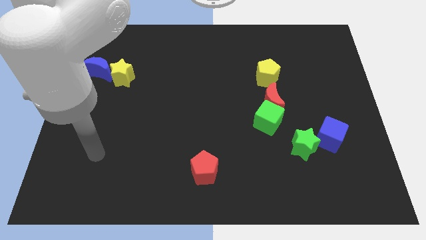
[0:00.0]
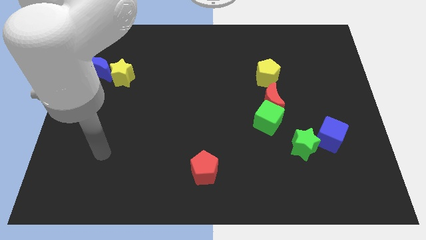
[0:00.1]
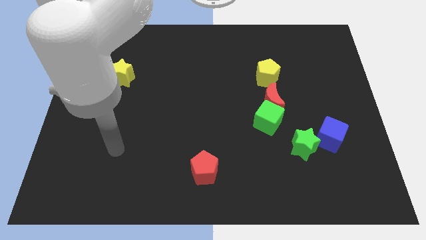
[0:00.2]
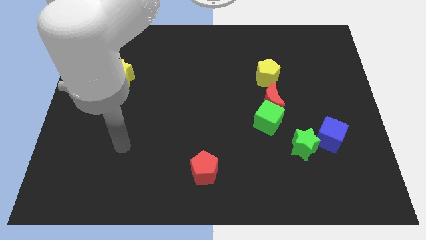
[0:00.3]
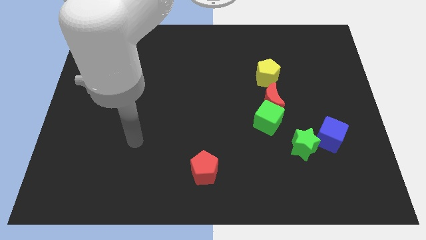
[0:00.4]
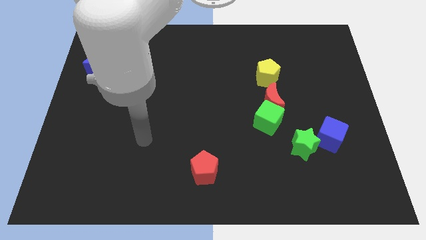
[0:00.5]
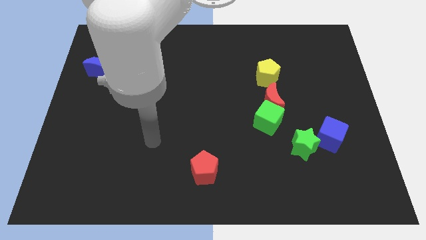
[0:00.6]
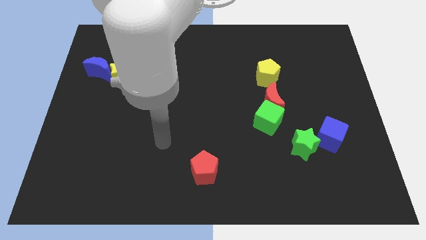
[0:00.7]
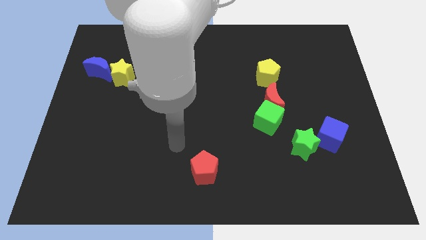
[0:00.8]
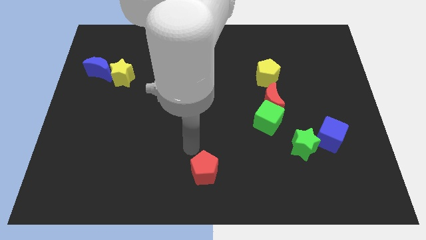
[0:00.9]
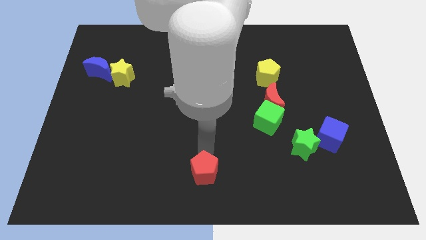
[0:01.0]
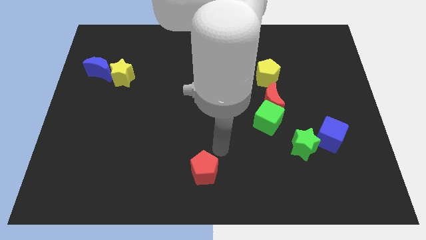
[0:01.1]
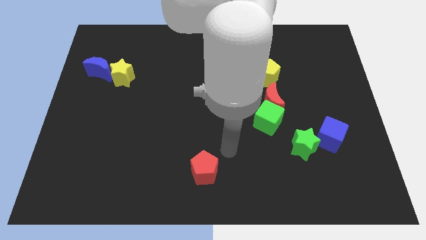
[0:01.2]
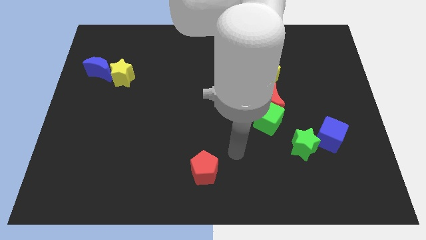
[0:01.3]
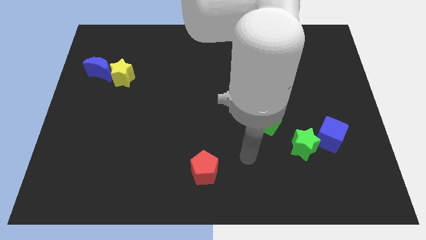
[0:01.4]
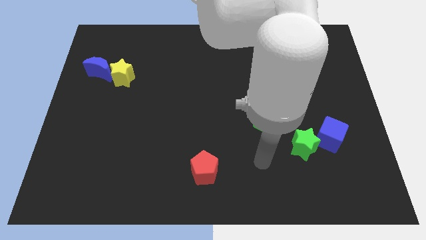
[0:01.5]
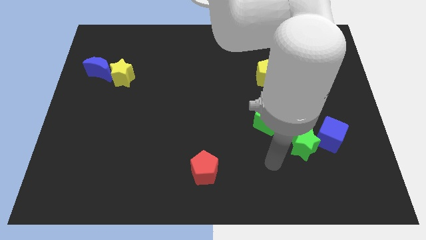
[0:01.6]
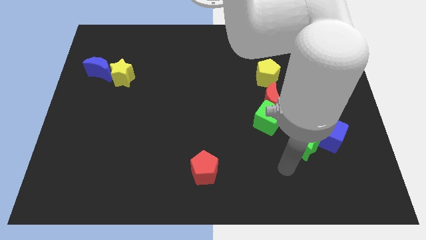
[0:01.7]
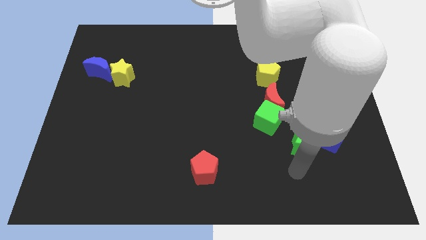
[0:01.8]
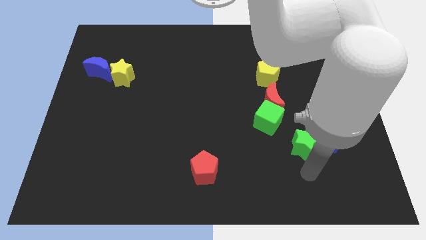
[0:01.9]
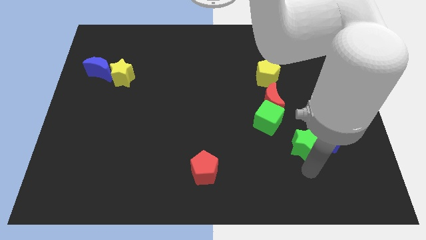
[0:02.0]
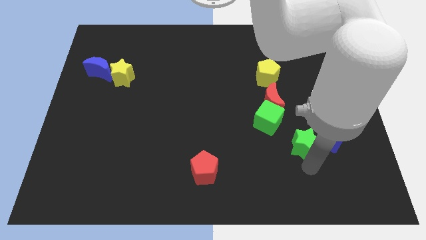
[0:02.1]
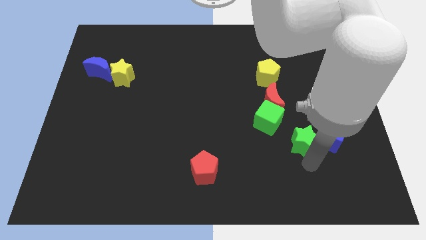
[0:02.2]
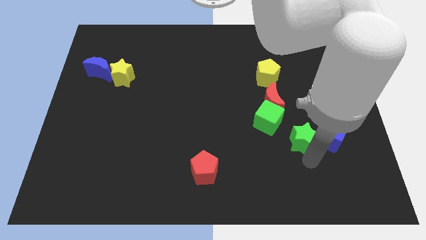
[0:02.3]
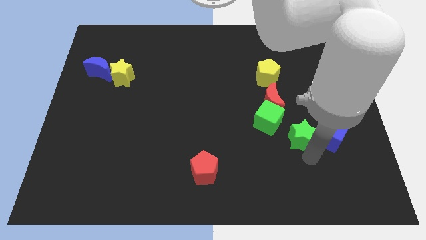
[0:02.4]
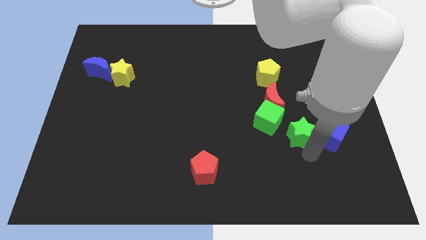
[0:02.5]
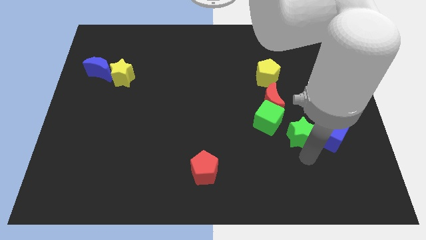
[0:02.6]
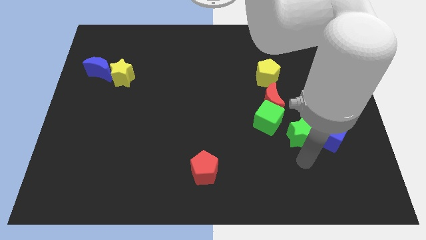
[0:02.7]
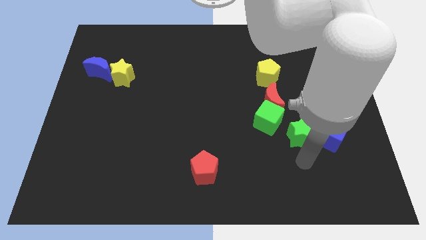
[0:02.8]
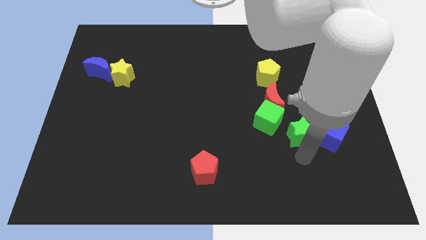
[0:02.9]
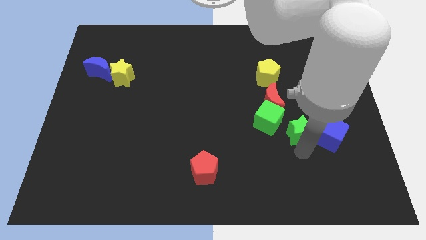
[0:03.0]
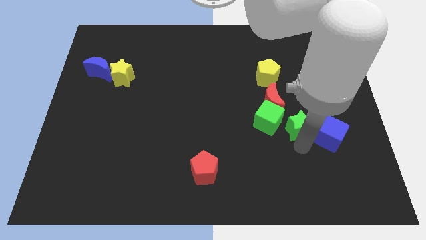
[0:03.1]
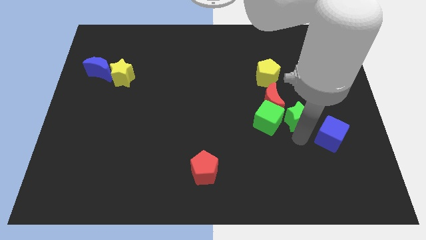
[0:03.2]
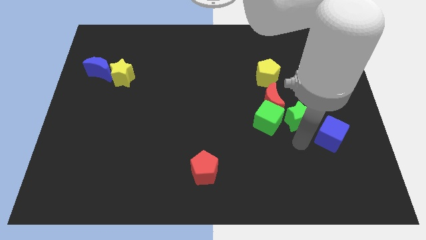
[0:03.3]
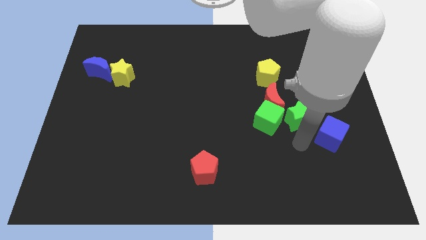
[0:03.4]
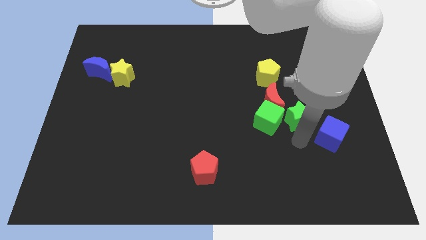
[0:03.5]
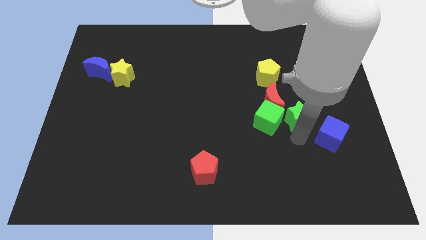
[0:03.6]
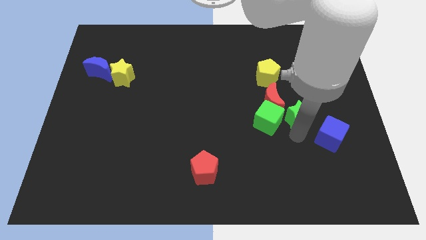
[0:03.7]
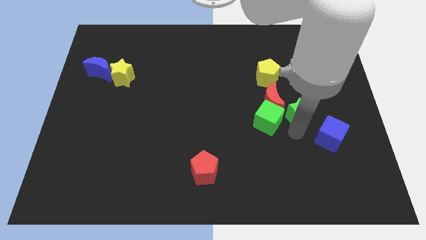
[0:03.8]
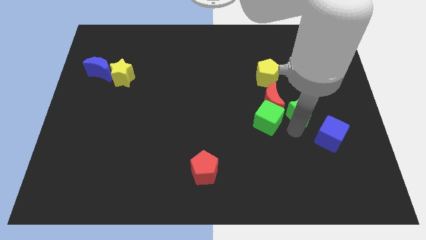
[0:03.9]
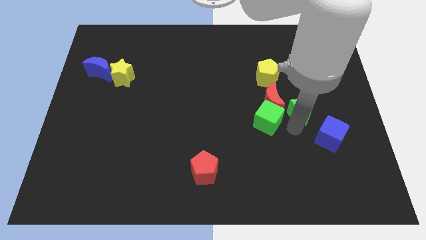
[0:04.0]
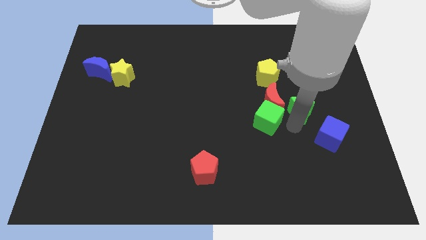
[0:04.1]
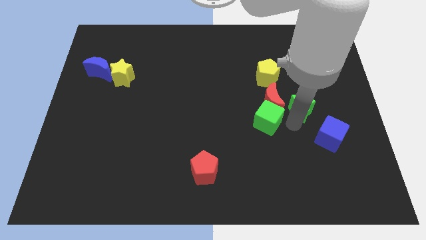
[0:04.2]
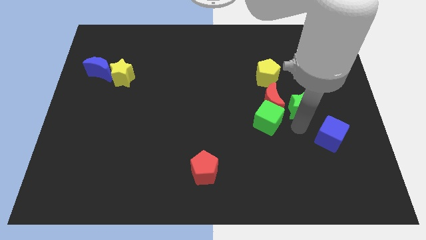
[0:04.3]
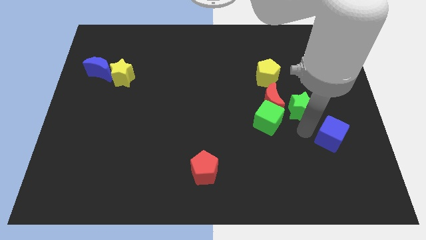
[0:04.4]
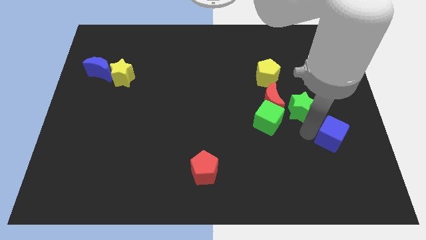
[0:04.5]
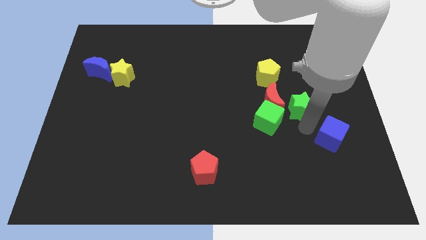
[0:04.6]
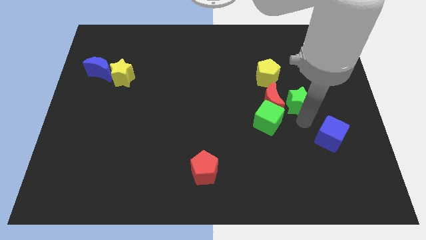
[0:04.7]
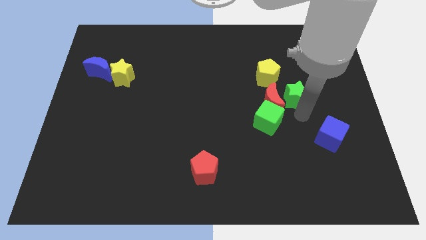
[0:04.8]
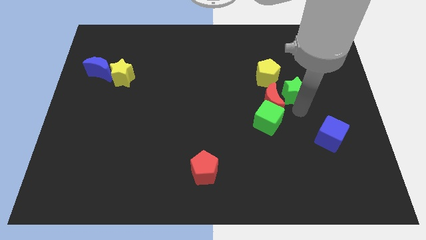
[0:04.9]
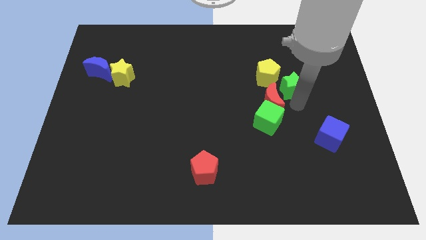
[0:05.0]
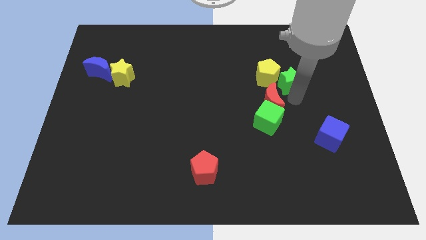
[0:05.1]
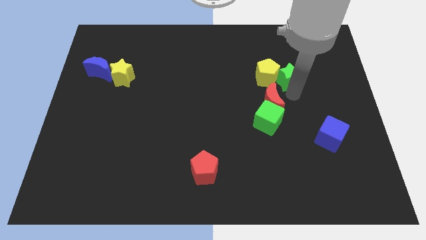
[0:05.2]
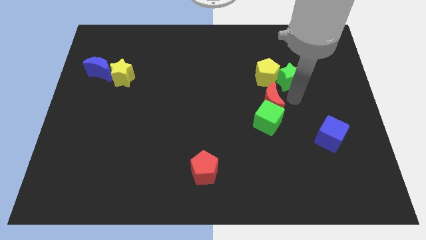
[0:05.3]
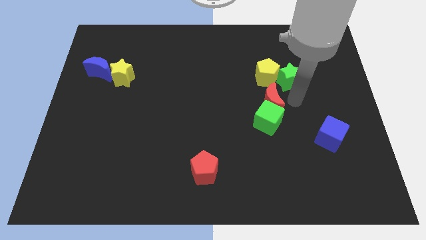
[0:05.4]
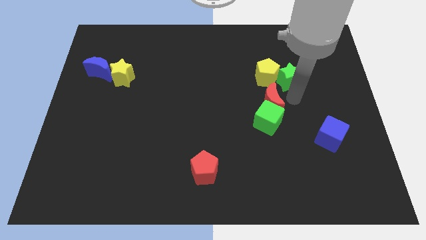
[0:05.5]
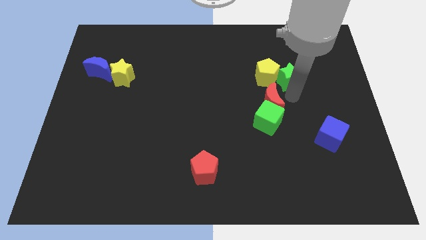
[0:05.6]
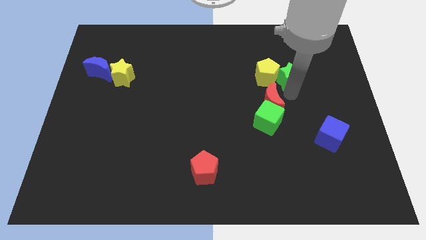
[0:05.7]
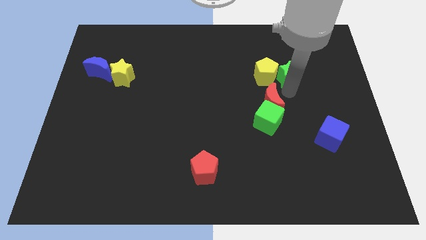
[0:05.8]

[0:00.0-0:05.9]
slide the green star to the top right side of the yellow pentagon

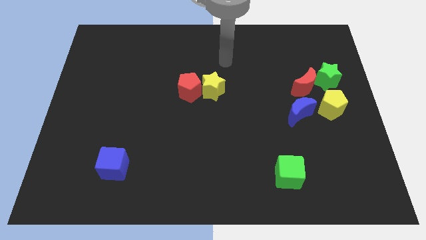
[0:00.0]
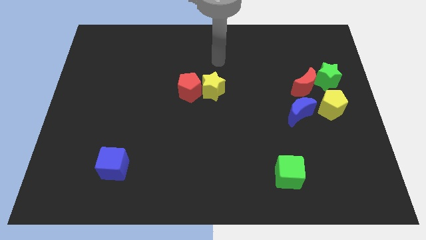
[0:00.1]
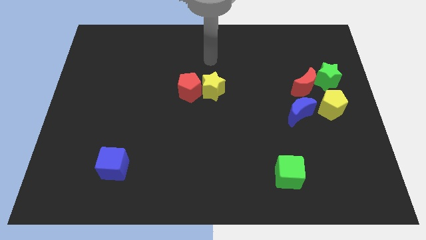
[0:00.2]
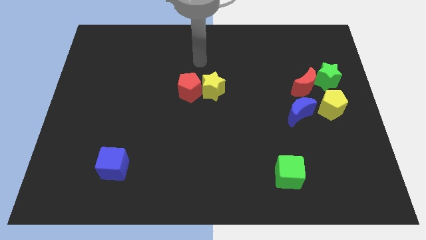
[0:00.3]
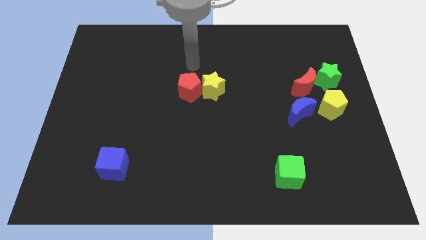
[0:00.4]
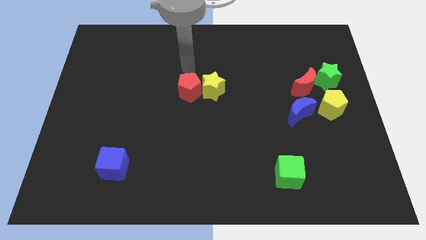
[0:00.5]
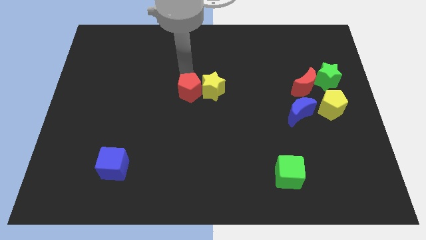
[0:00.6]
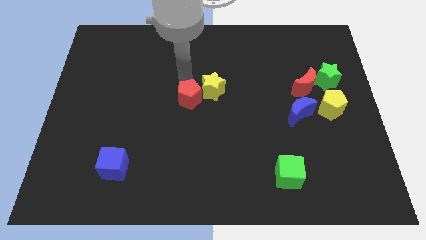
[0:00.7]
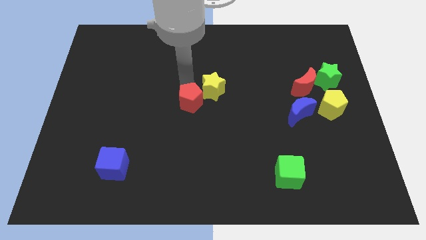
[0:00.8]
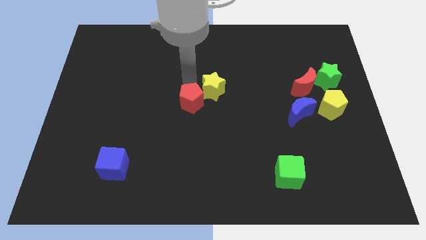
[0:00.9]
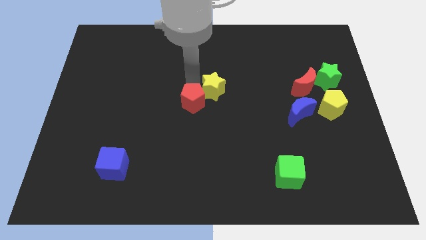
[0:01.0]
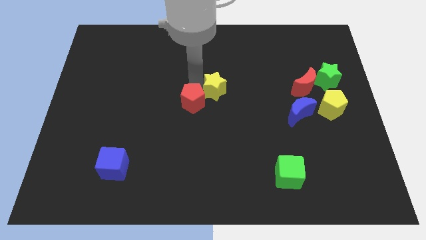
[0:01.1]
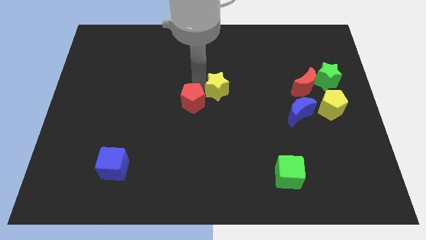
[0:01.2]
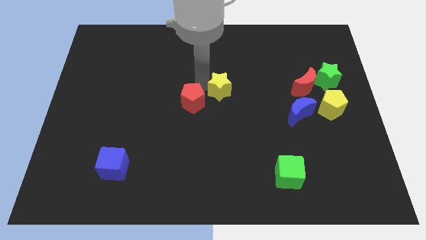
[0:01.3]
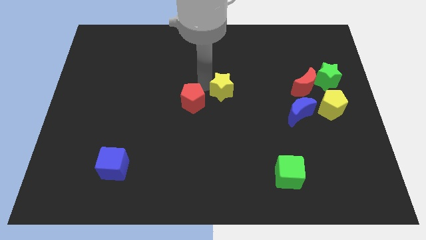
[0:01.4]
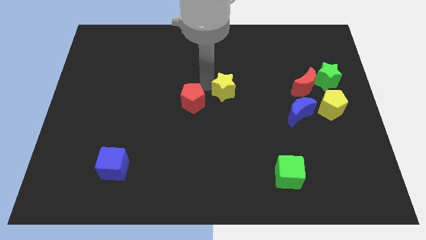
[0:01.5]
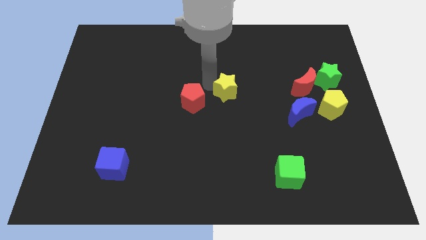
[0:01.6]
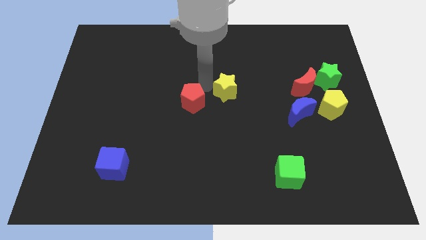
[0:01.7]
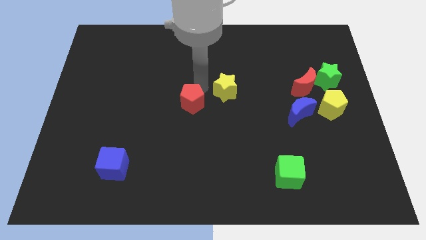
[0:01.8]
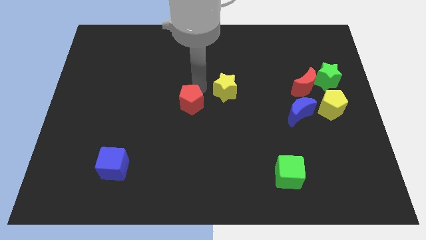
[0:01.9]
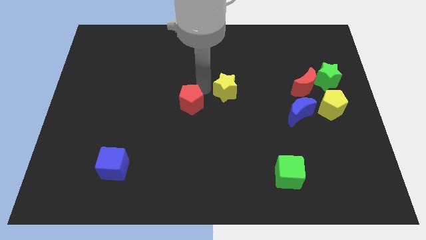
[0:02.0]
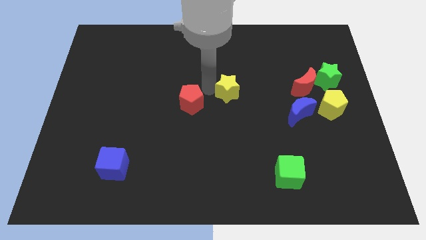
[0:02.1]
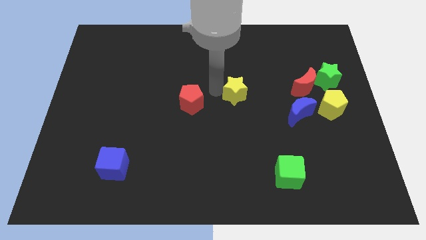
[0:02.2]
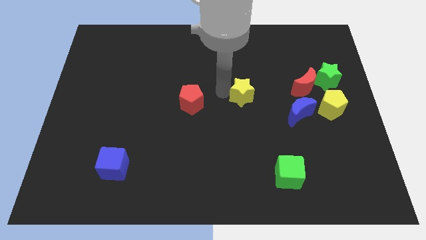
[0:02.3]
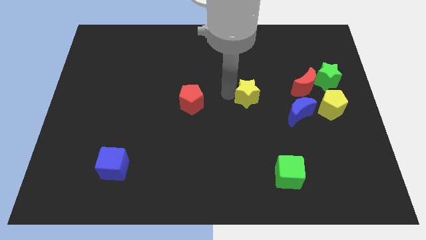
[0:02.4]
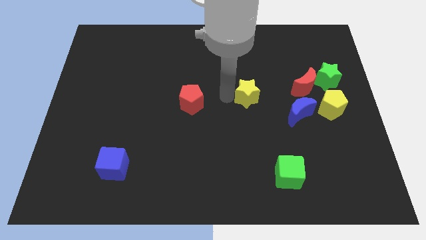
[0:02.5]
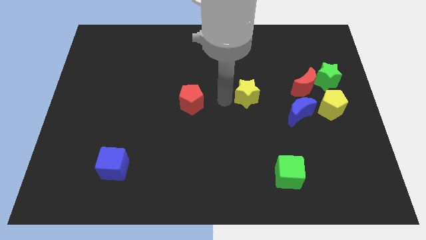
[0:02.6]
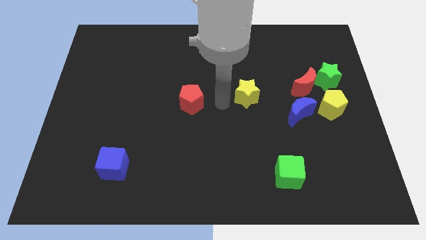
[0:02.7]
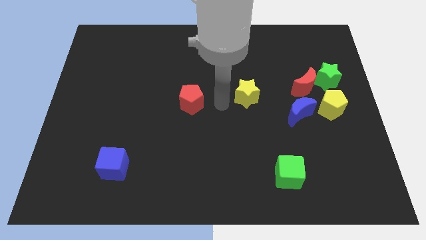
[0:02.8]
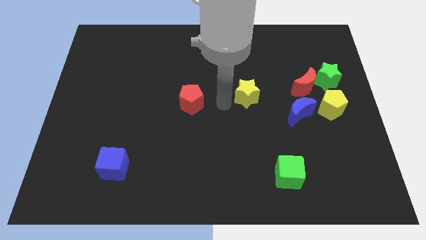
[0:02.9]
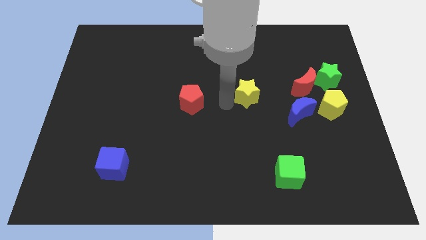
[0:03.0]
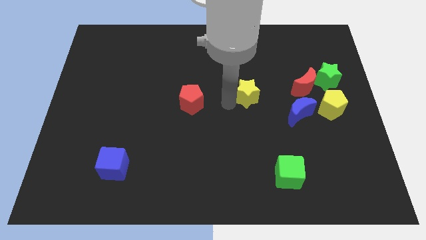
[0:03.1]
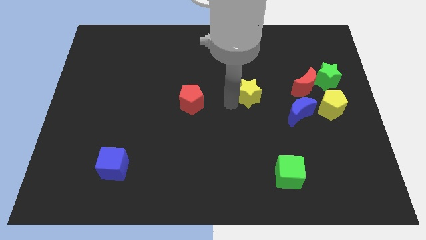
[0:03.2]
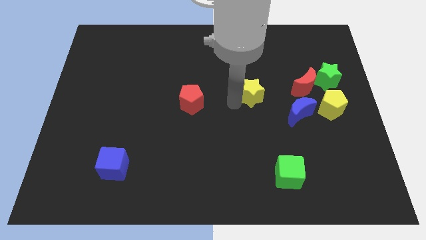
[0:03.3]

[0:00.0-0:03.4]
slide the yellow star to the top left side of the blue moon
